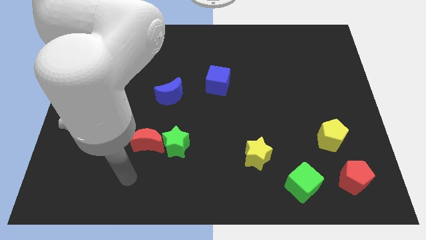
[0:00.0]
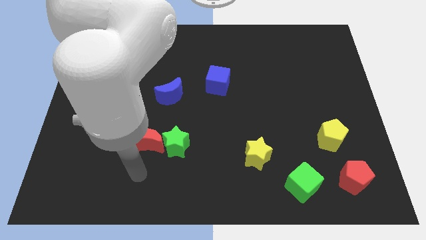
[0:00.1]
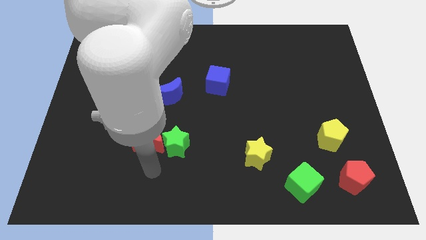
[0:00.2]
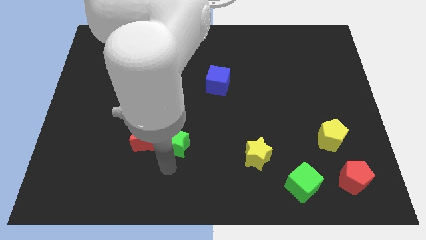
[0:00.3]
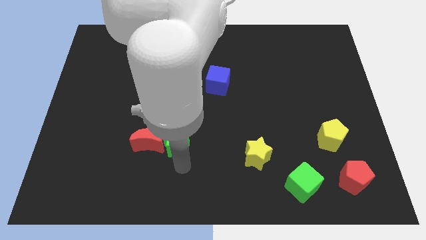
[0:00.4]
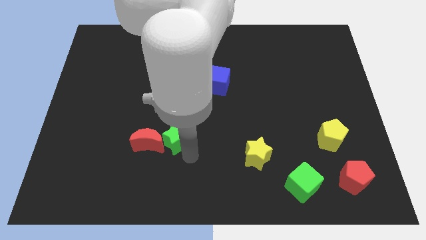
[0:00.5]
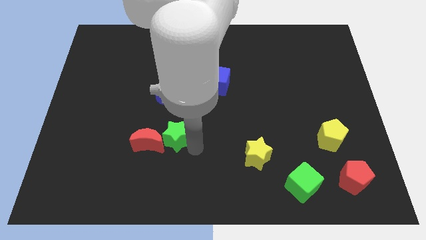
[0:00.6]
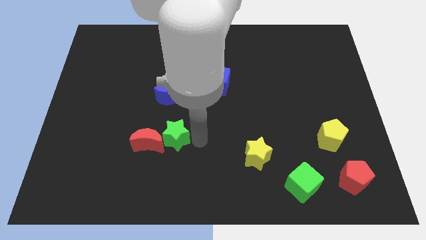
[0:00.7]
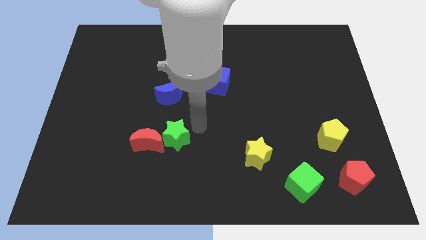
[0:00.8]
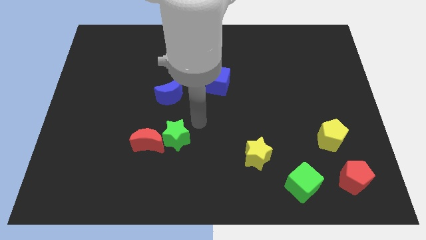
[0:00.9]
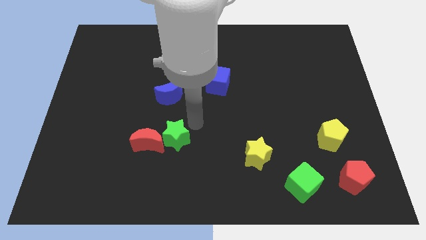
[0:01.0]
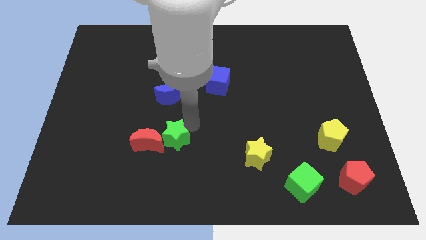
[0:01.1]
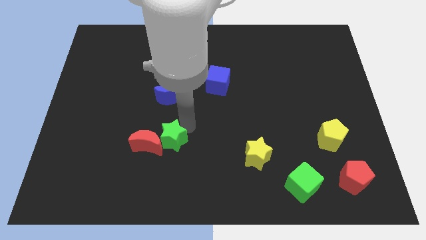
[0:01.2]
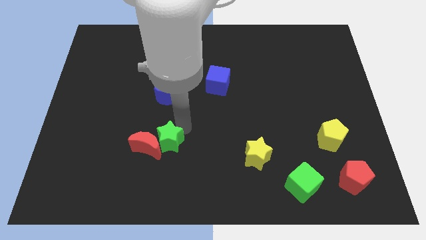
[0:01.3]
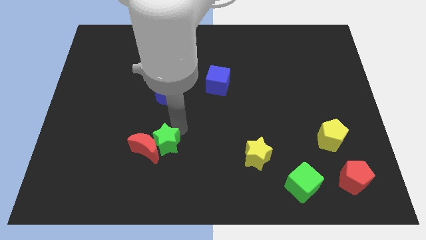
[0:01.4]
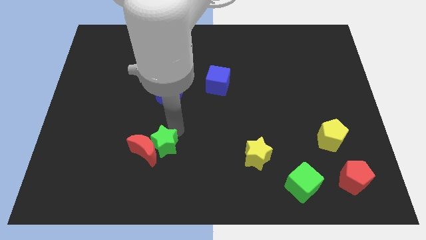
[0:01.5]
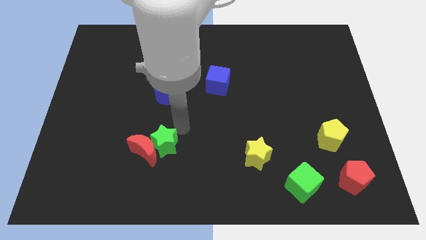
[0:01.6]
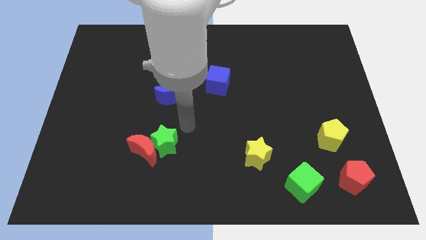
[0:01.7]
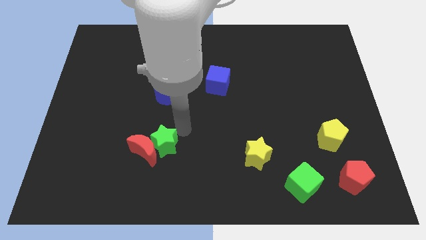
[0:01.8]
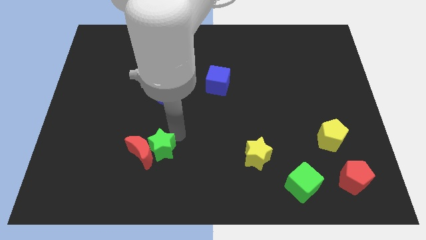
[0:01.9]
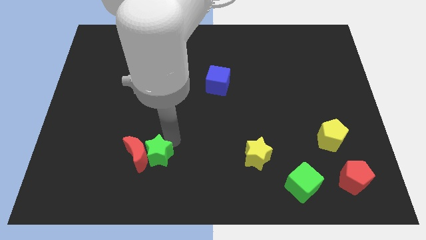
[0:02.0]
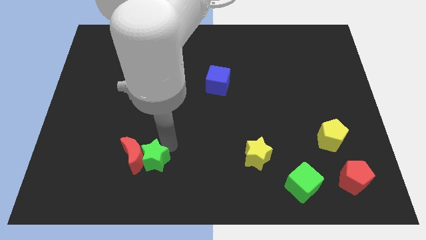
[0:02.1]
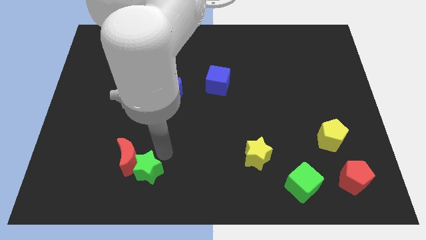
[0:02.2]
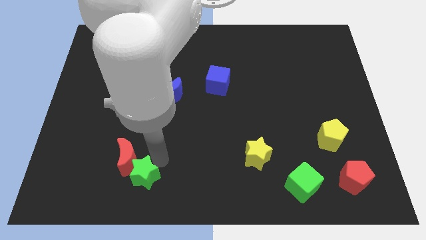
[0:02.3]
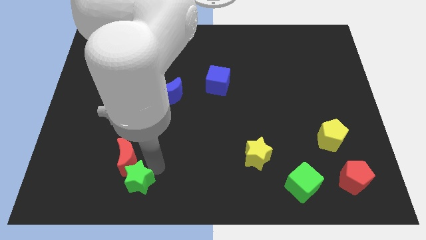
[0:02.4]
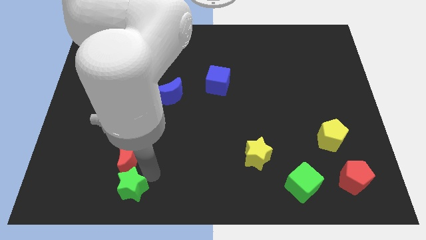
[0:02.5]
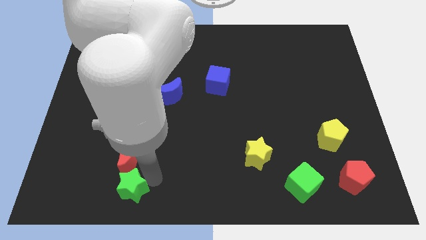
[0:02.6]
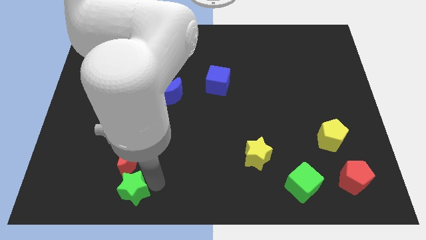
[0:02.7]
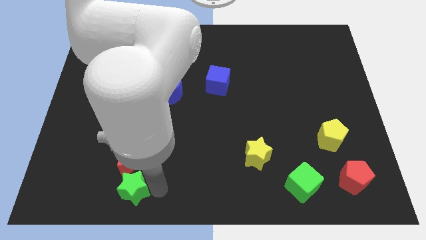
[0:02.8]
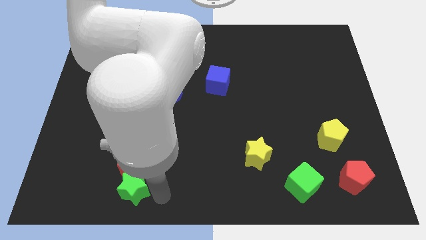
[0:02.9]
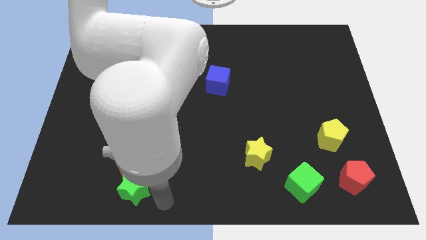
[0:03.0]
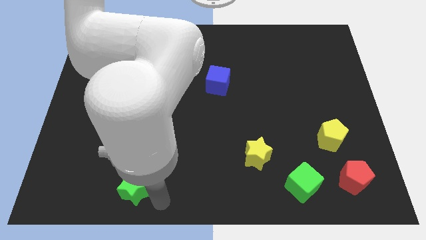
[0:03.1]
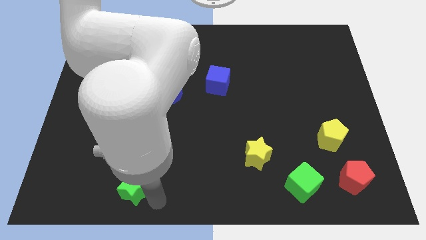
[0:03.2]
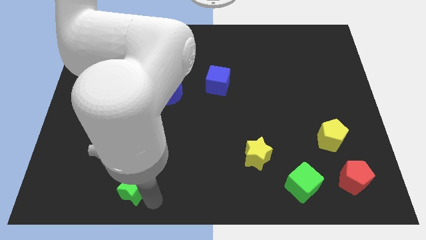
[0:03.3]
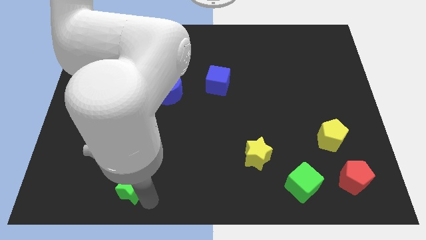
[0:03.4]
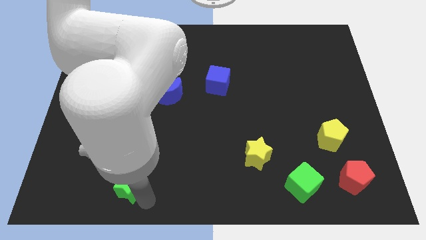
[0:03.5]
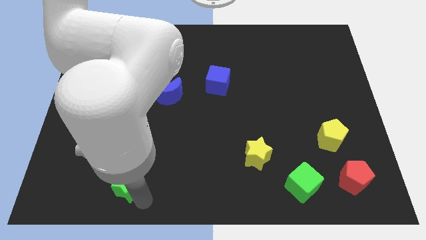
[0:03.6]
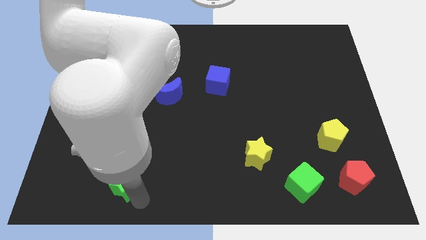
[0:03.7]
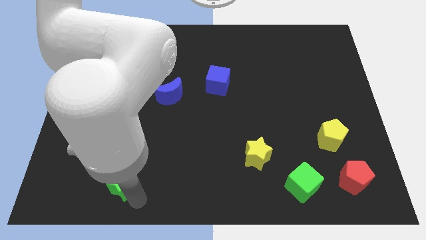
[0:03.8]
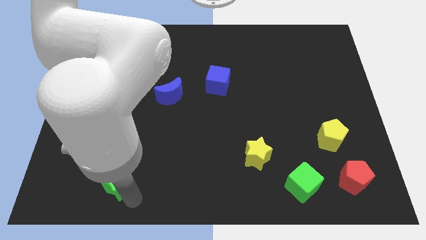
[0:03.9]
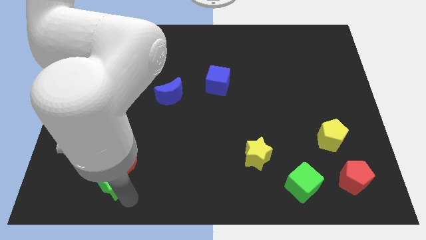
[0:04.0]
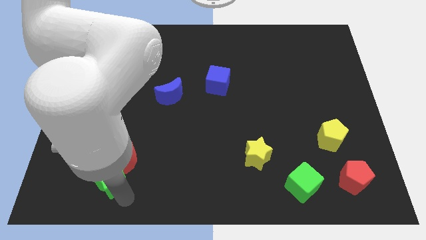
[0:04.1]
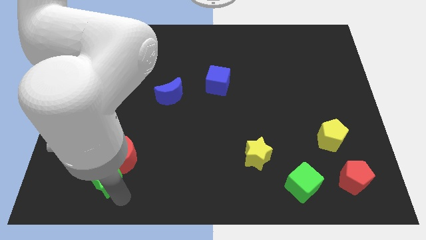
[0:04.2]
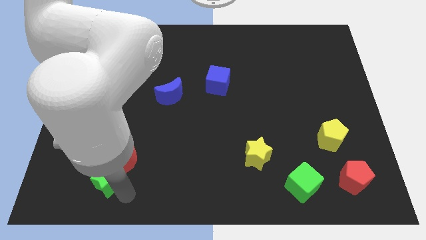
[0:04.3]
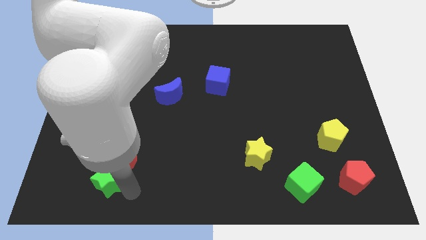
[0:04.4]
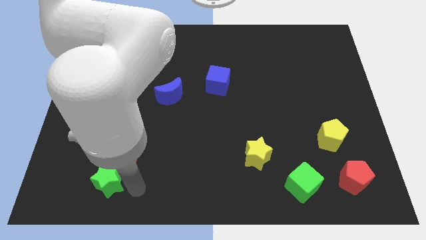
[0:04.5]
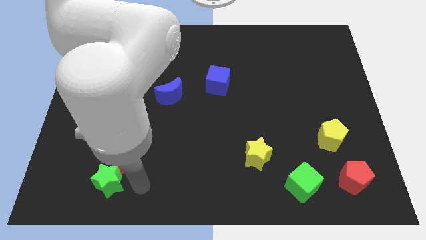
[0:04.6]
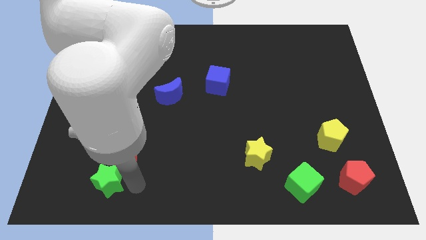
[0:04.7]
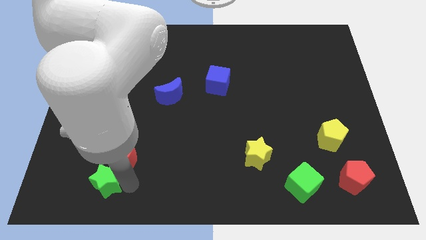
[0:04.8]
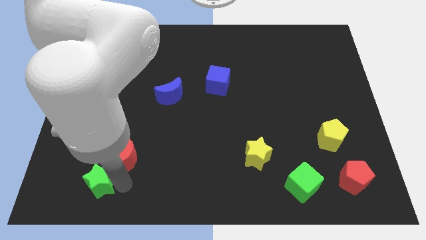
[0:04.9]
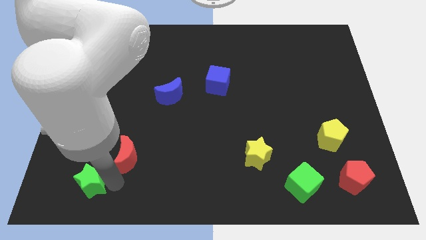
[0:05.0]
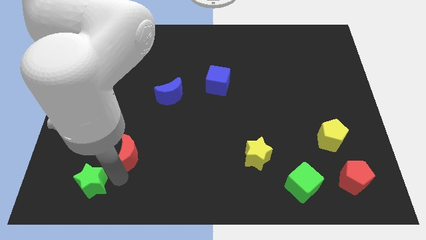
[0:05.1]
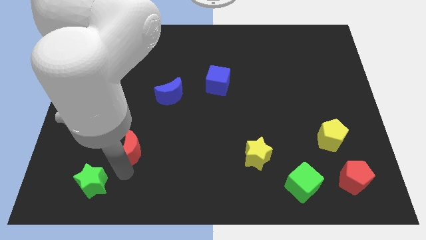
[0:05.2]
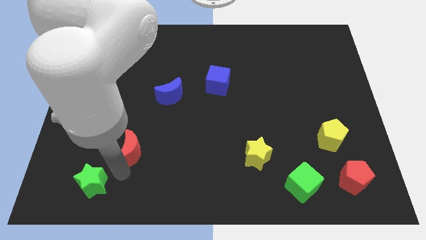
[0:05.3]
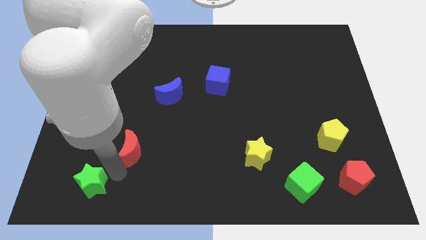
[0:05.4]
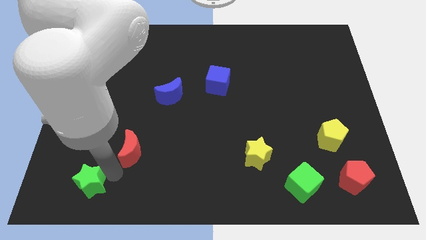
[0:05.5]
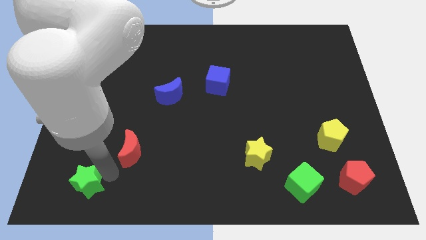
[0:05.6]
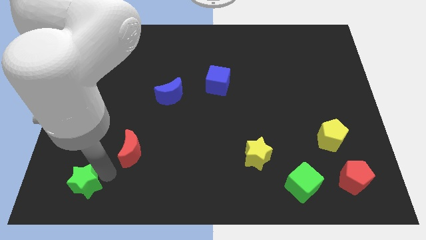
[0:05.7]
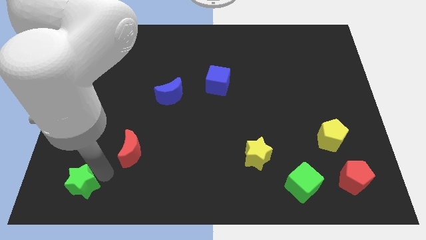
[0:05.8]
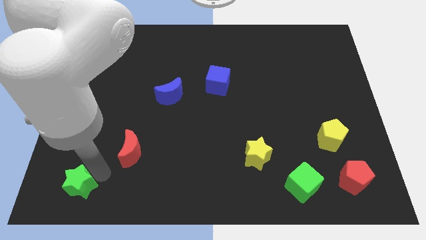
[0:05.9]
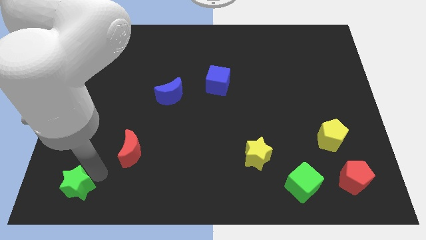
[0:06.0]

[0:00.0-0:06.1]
move the green star to the bottom left of the board
